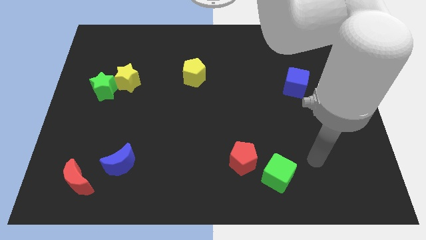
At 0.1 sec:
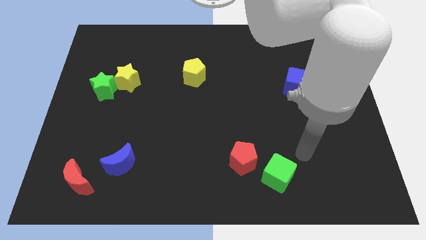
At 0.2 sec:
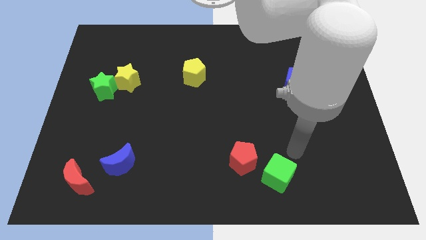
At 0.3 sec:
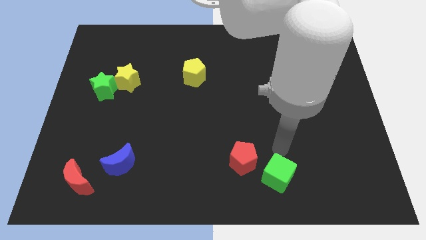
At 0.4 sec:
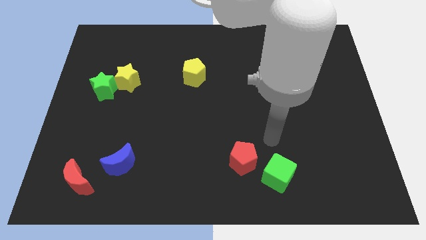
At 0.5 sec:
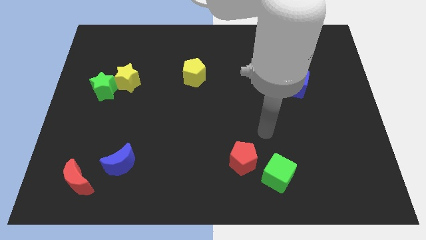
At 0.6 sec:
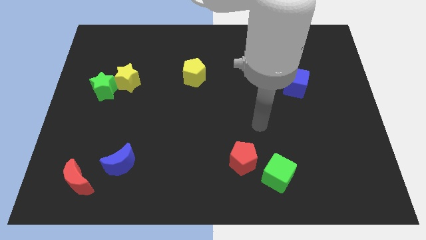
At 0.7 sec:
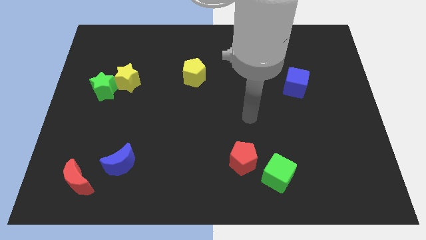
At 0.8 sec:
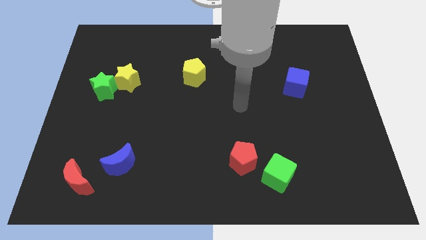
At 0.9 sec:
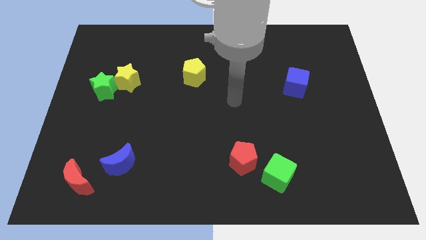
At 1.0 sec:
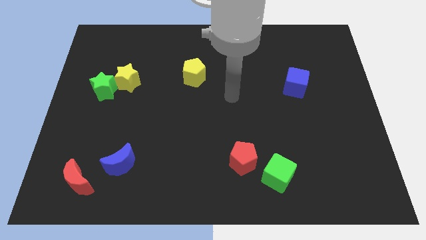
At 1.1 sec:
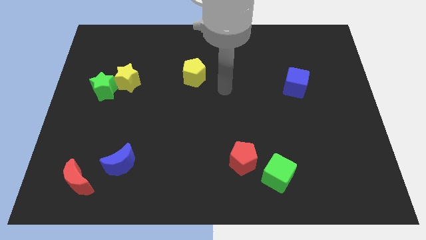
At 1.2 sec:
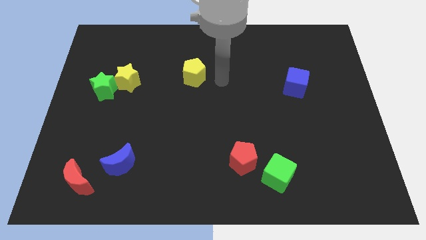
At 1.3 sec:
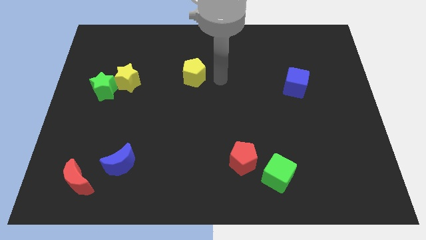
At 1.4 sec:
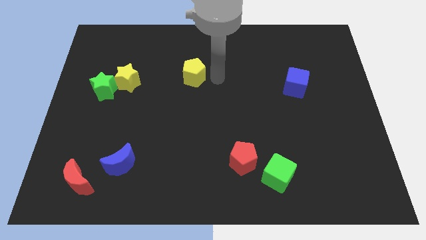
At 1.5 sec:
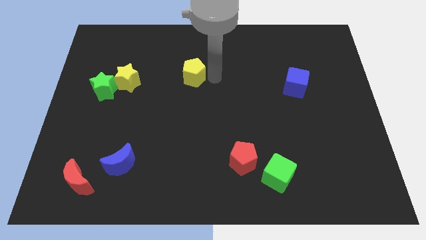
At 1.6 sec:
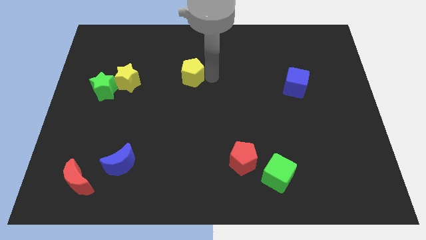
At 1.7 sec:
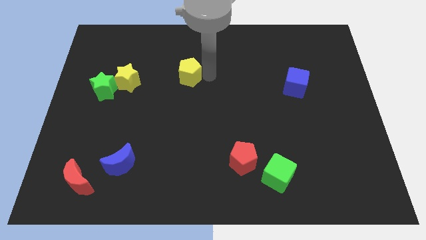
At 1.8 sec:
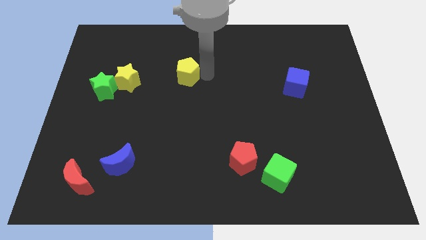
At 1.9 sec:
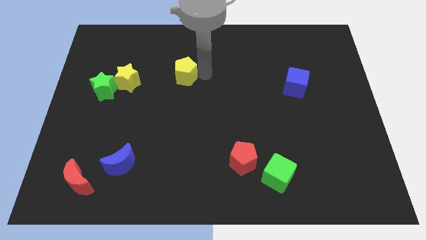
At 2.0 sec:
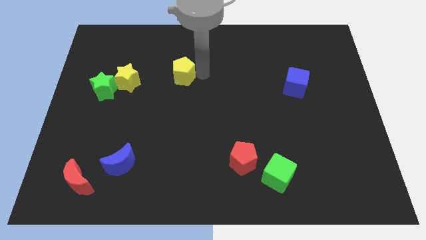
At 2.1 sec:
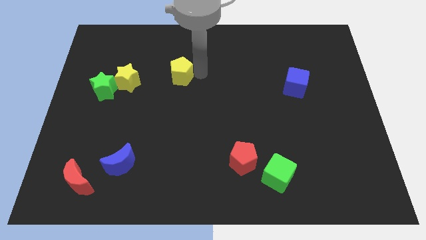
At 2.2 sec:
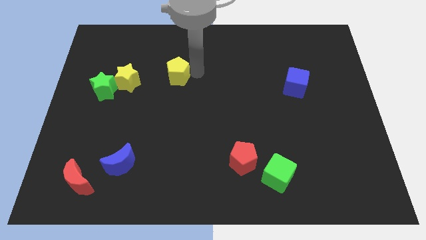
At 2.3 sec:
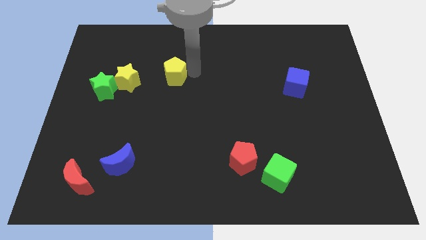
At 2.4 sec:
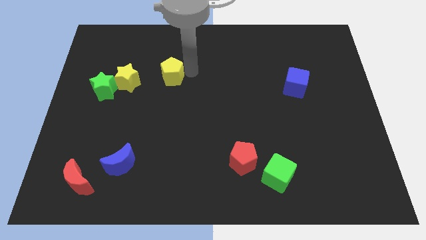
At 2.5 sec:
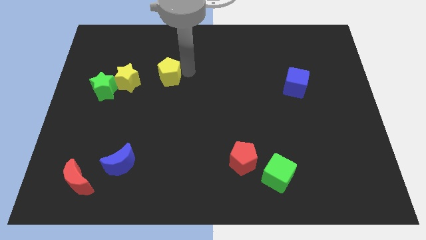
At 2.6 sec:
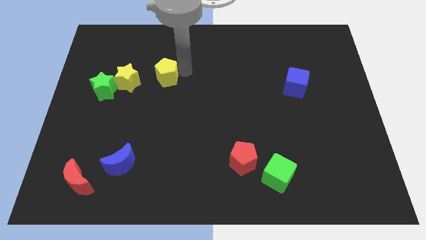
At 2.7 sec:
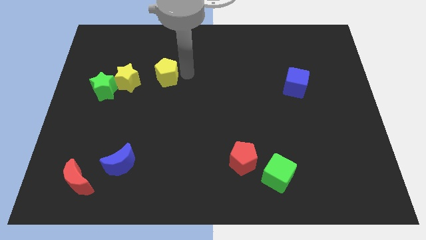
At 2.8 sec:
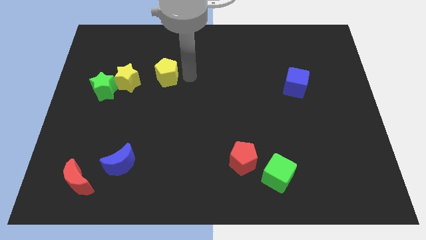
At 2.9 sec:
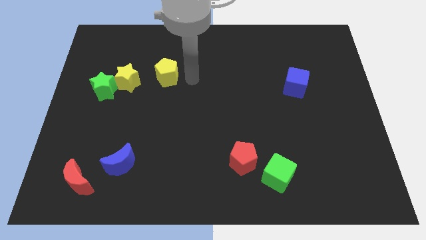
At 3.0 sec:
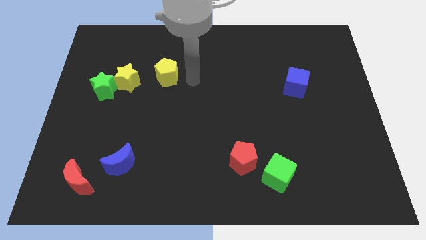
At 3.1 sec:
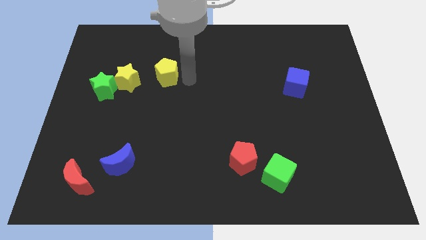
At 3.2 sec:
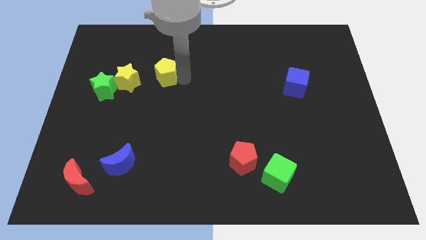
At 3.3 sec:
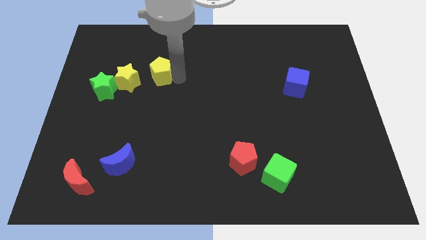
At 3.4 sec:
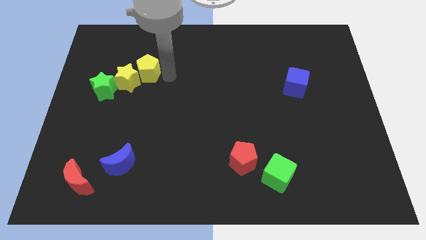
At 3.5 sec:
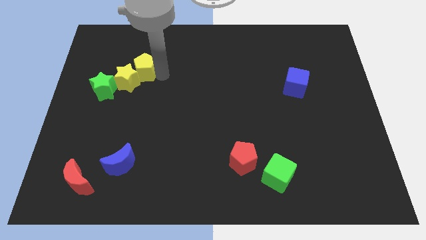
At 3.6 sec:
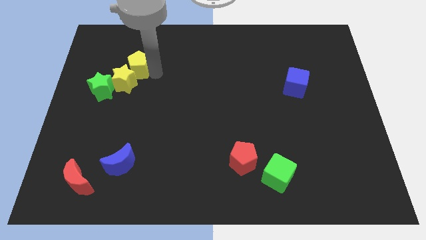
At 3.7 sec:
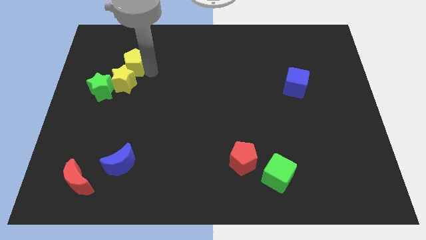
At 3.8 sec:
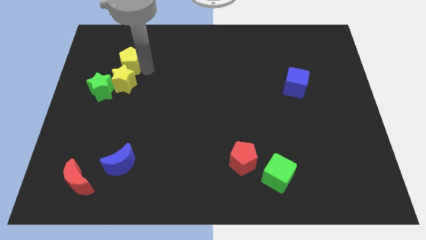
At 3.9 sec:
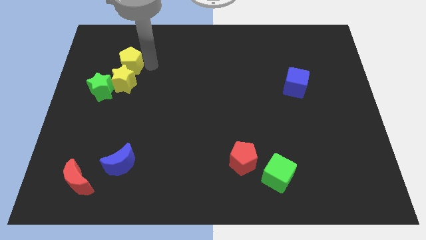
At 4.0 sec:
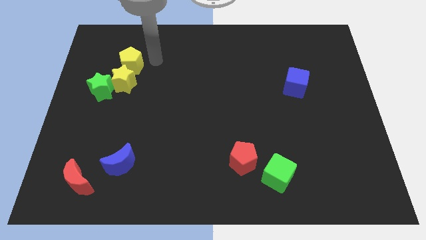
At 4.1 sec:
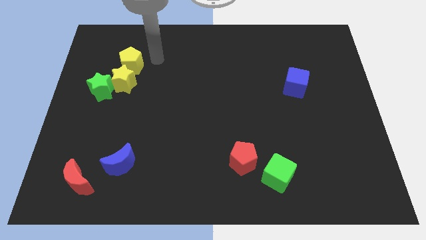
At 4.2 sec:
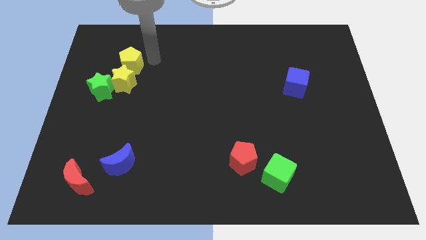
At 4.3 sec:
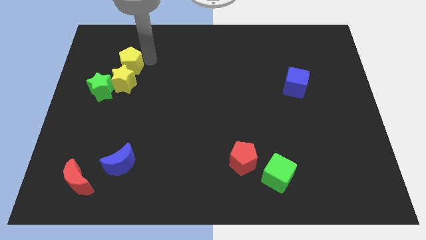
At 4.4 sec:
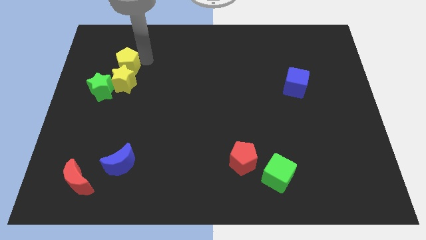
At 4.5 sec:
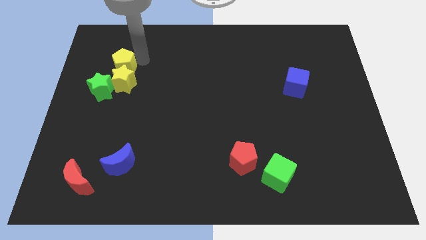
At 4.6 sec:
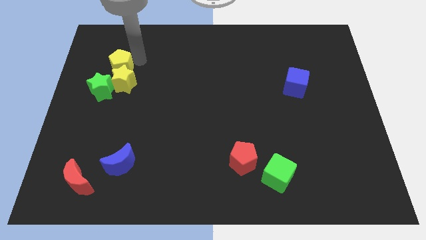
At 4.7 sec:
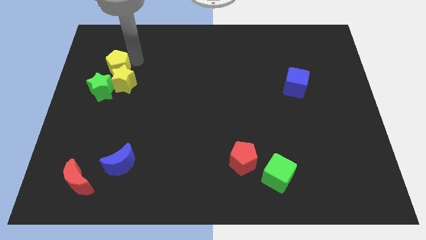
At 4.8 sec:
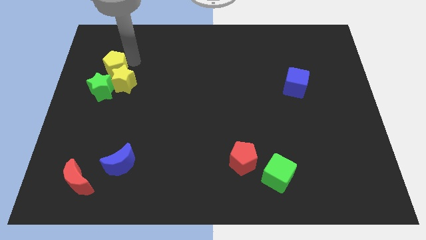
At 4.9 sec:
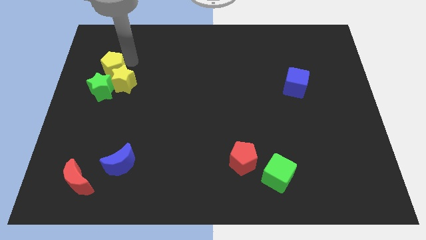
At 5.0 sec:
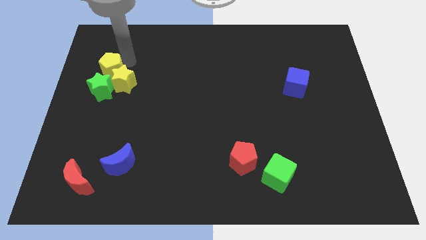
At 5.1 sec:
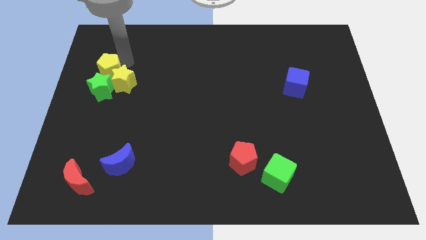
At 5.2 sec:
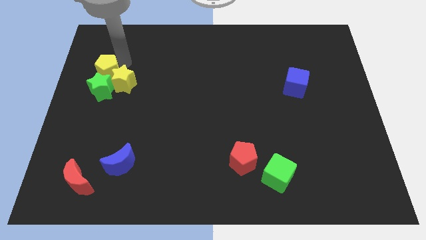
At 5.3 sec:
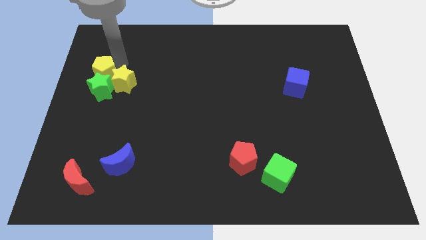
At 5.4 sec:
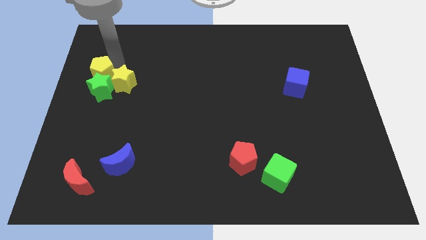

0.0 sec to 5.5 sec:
move the yellow pentagon to the center left
